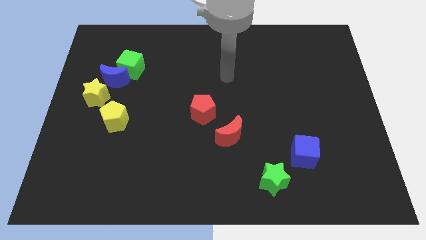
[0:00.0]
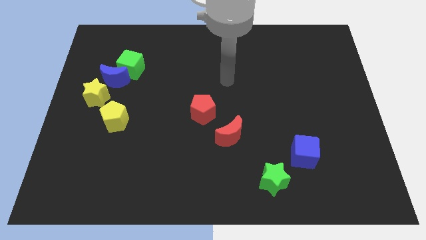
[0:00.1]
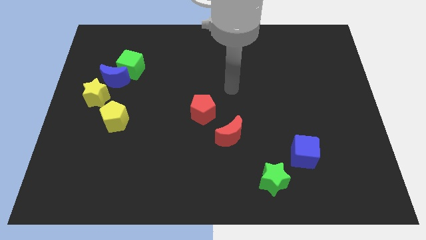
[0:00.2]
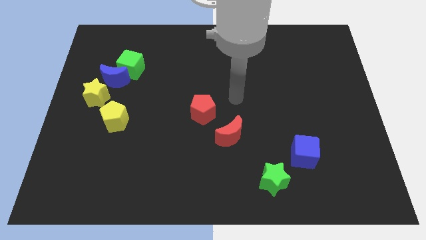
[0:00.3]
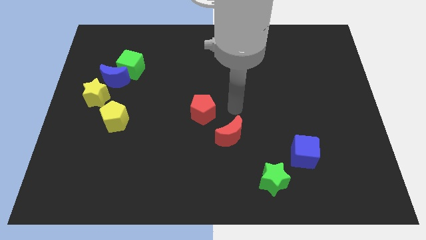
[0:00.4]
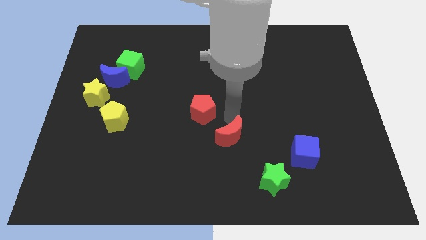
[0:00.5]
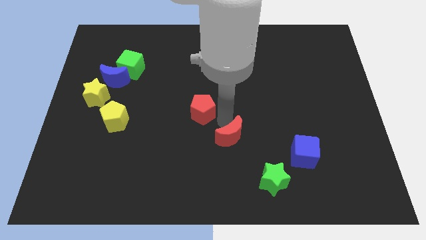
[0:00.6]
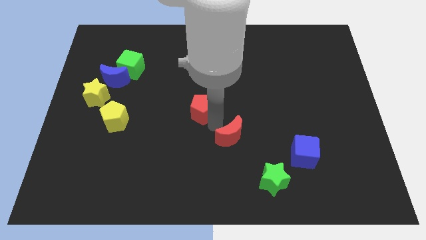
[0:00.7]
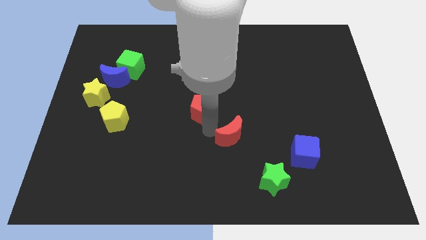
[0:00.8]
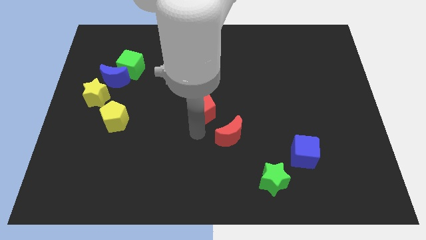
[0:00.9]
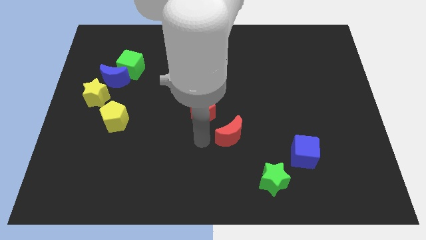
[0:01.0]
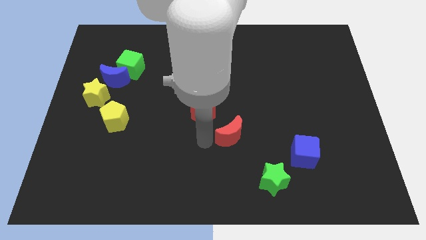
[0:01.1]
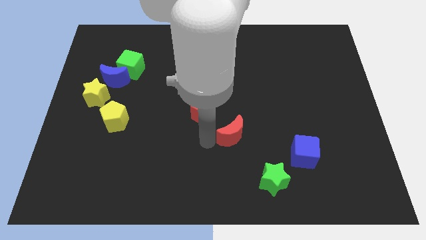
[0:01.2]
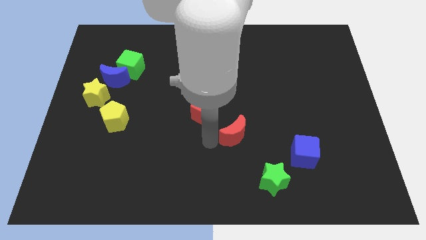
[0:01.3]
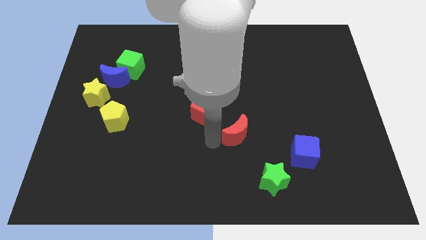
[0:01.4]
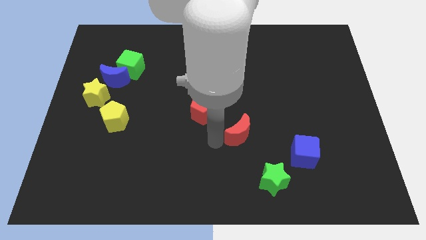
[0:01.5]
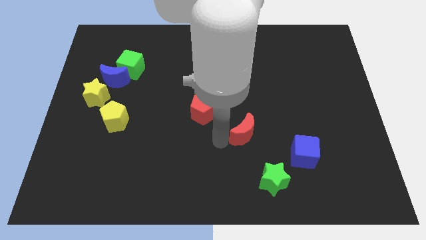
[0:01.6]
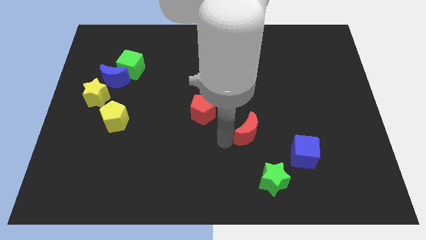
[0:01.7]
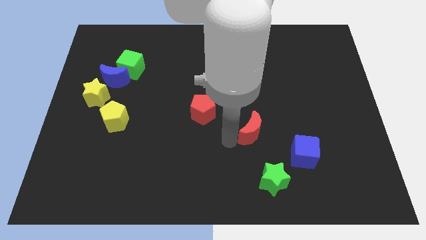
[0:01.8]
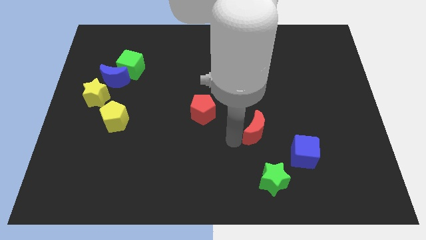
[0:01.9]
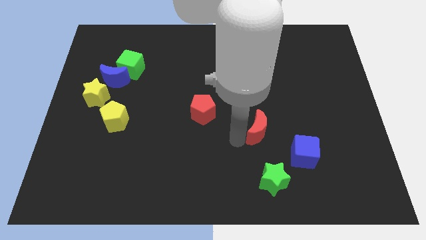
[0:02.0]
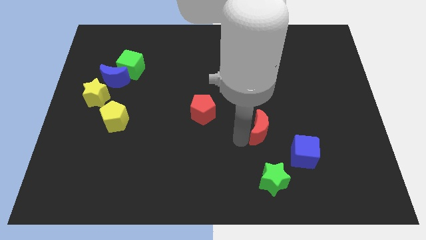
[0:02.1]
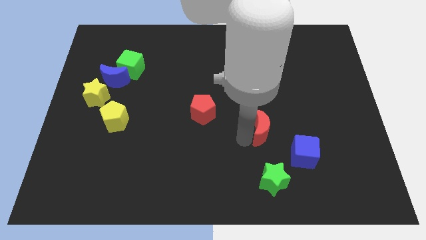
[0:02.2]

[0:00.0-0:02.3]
move the red moon somewhat right

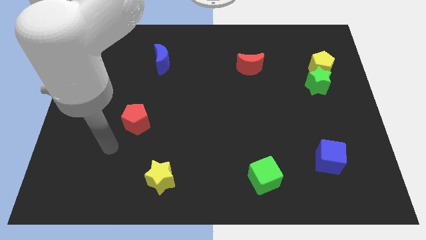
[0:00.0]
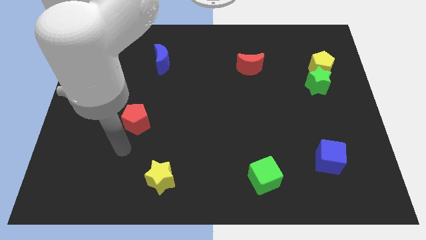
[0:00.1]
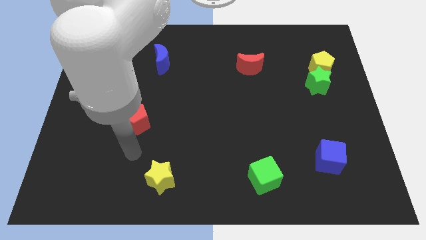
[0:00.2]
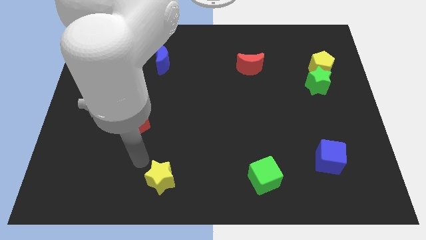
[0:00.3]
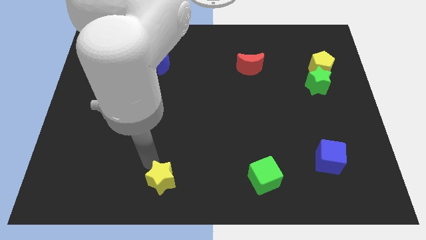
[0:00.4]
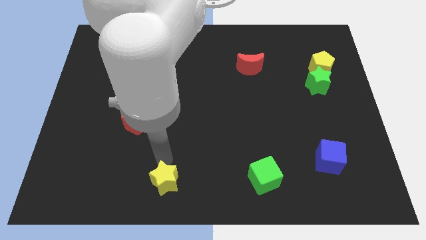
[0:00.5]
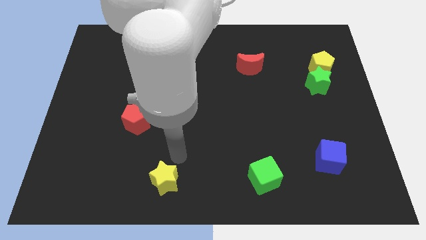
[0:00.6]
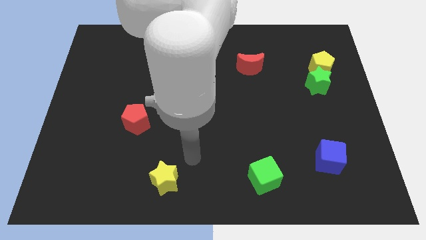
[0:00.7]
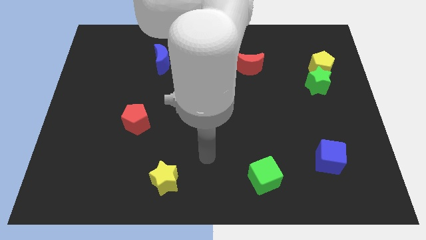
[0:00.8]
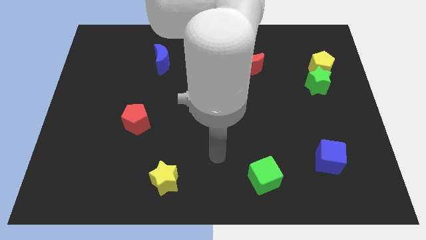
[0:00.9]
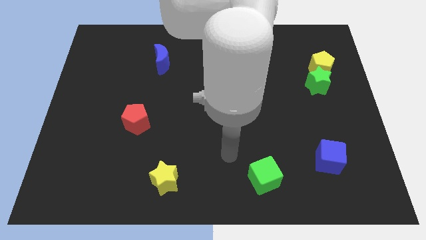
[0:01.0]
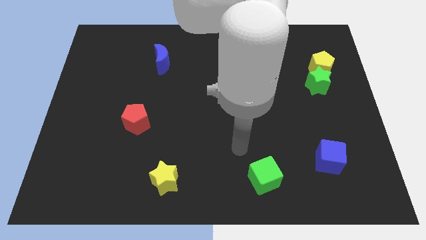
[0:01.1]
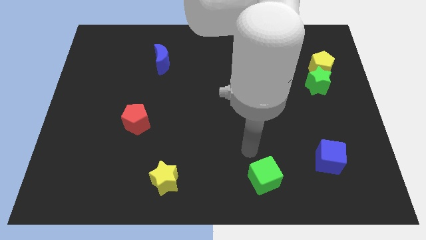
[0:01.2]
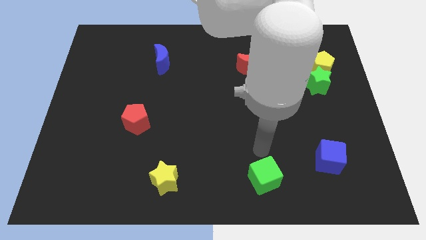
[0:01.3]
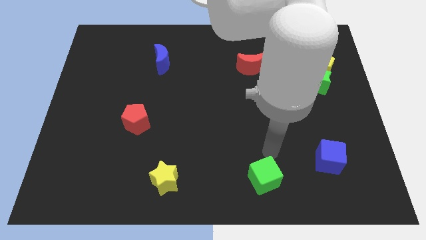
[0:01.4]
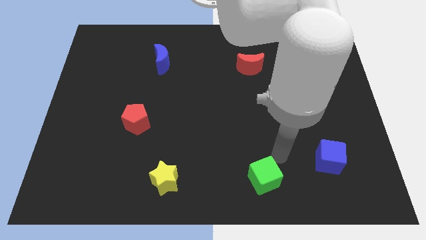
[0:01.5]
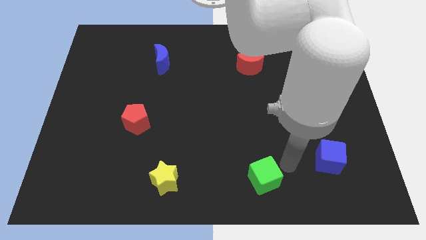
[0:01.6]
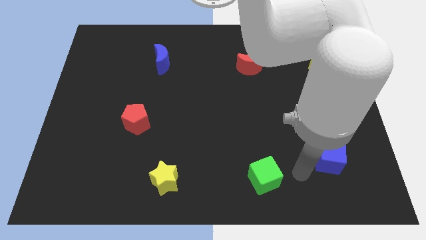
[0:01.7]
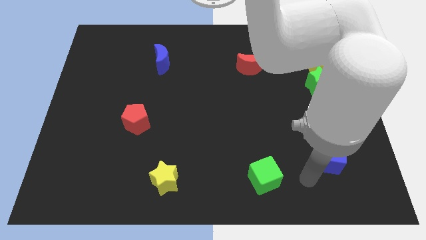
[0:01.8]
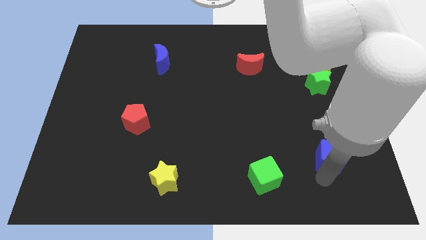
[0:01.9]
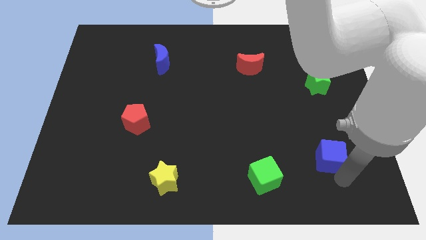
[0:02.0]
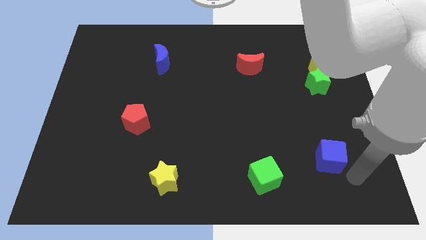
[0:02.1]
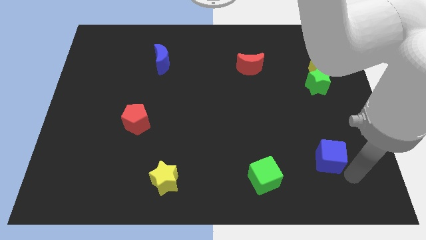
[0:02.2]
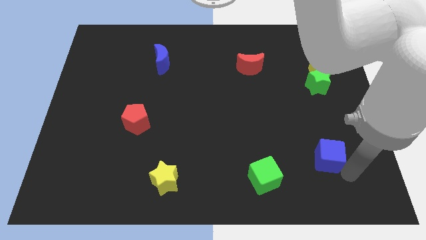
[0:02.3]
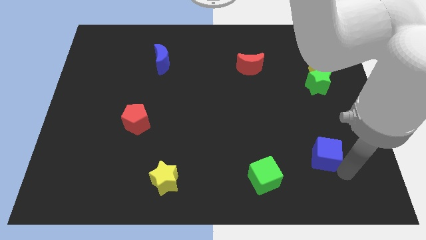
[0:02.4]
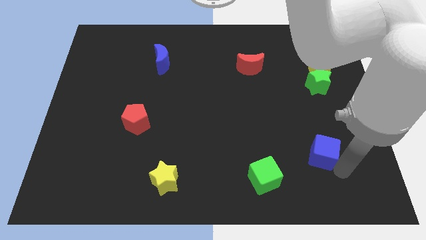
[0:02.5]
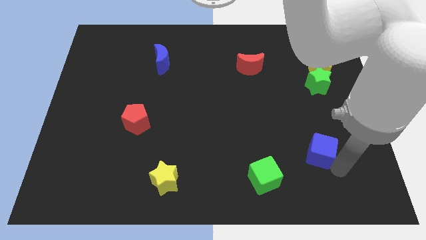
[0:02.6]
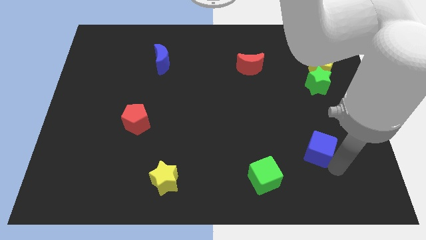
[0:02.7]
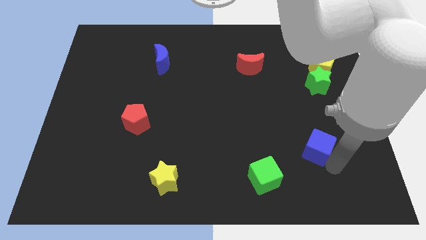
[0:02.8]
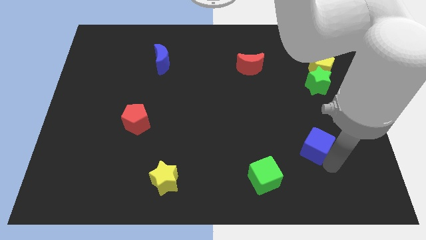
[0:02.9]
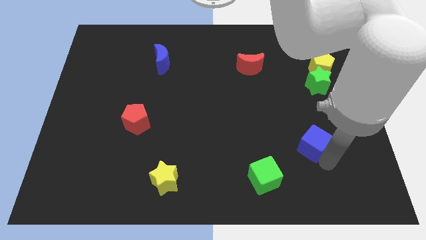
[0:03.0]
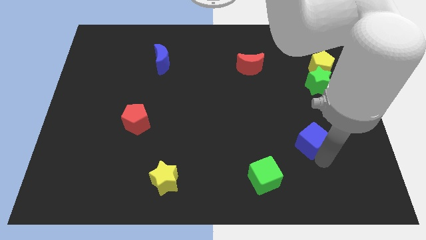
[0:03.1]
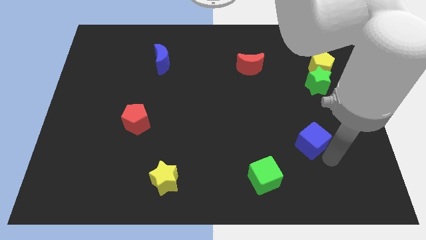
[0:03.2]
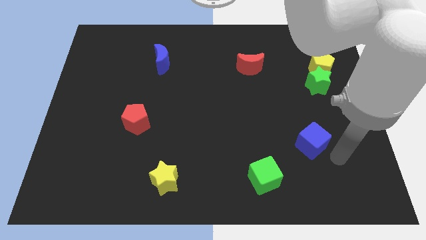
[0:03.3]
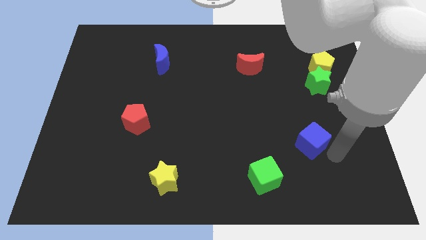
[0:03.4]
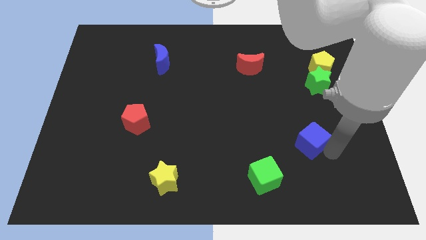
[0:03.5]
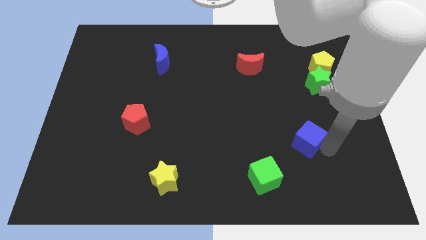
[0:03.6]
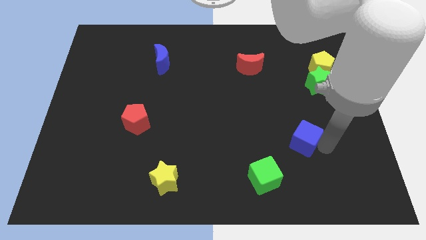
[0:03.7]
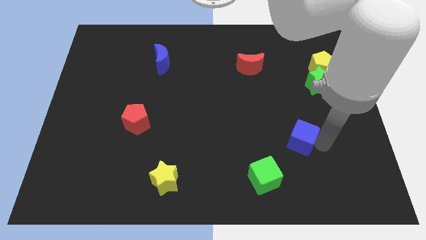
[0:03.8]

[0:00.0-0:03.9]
move the blue cube somewhat up and then left

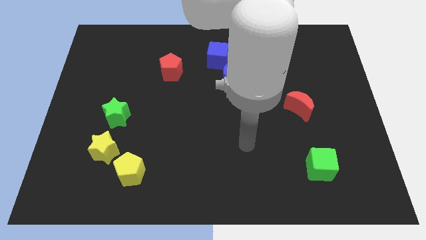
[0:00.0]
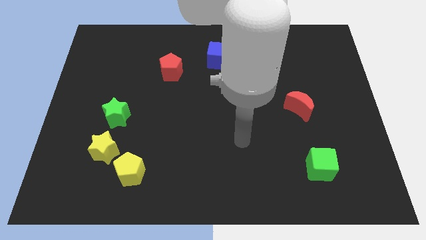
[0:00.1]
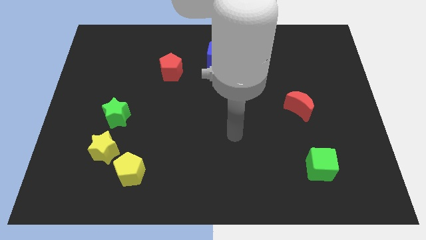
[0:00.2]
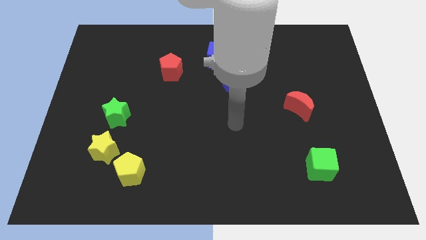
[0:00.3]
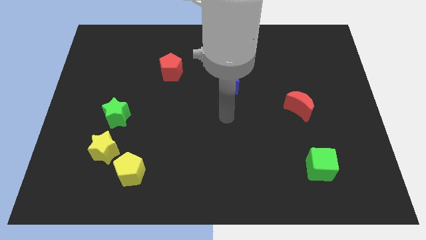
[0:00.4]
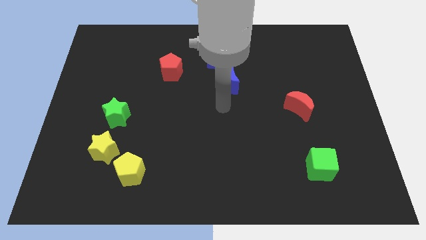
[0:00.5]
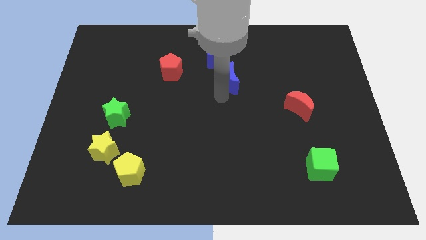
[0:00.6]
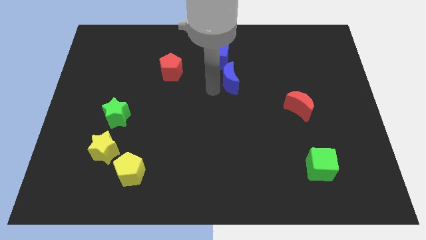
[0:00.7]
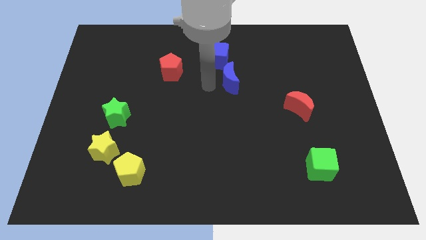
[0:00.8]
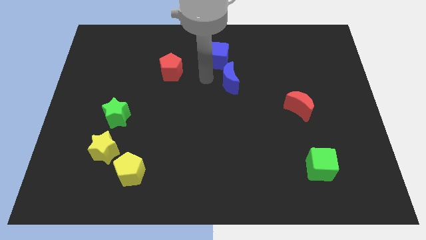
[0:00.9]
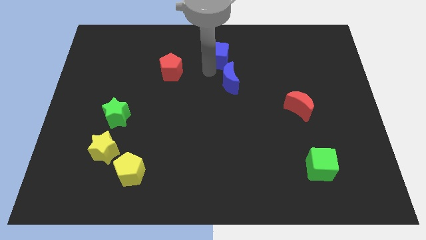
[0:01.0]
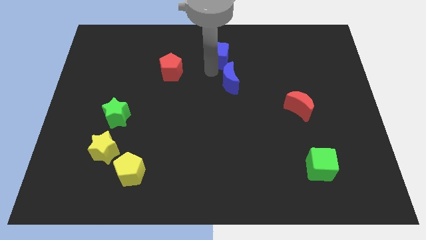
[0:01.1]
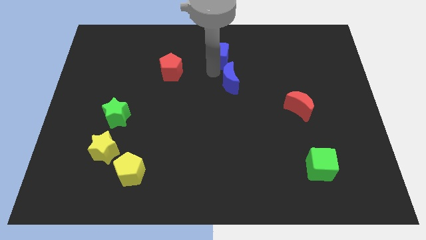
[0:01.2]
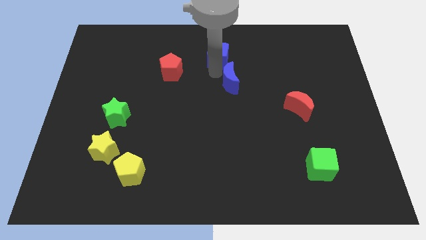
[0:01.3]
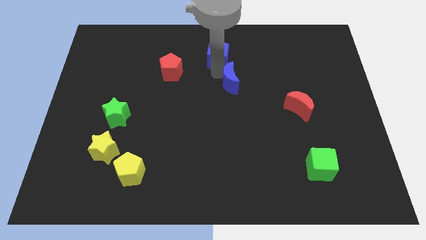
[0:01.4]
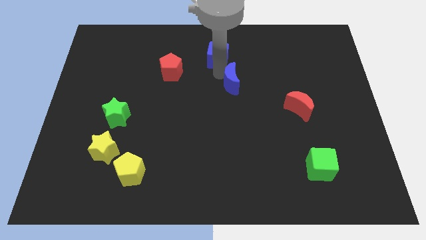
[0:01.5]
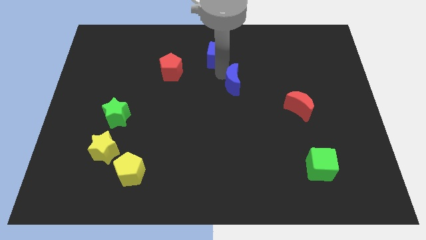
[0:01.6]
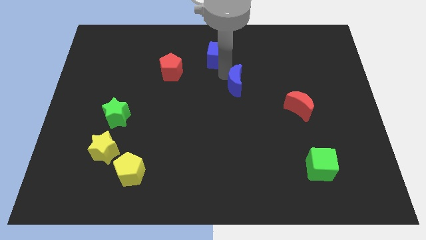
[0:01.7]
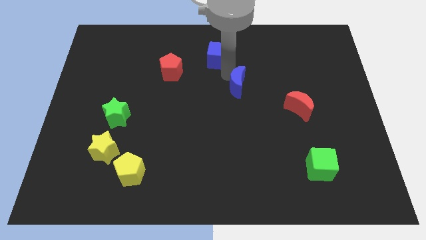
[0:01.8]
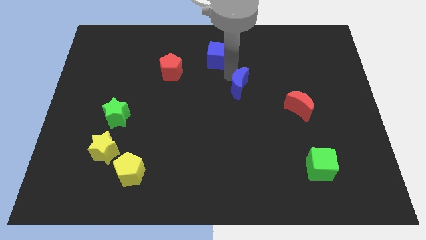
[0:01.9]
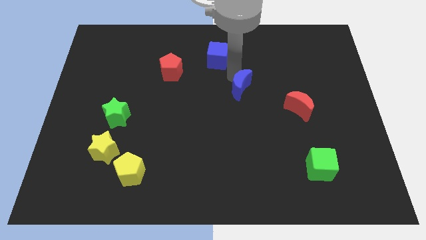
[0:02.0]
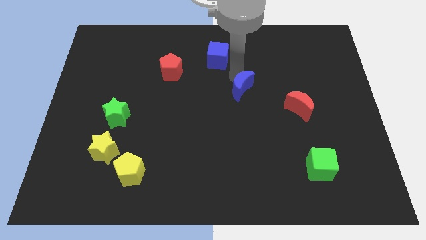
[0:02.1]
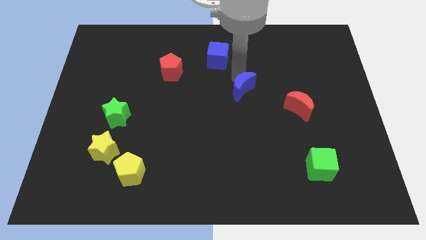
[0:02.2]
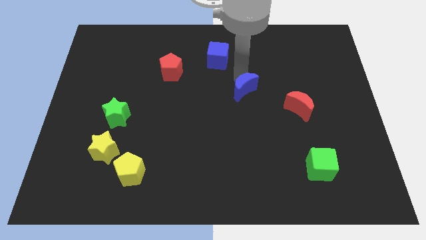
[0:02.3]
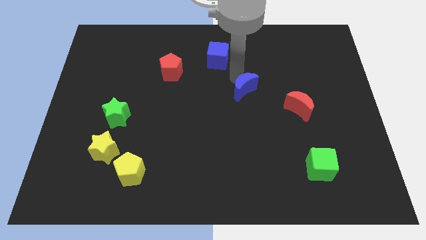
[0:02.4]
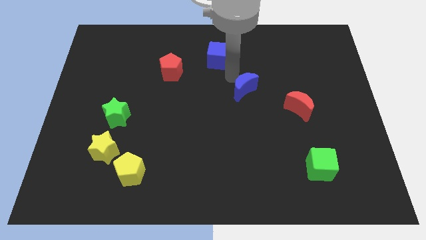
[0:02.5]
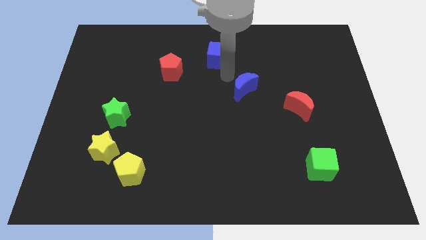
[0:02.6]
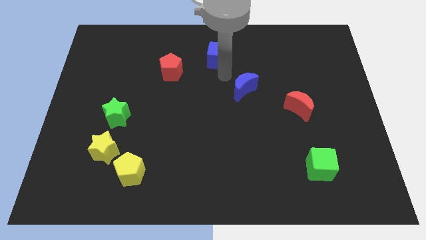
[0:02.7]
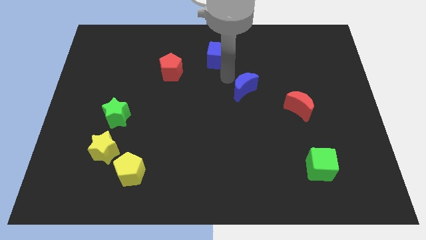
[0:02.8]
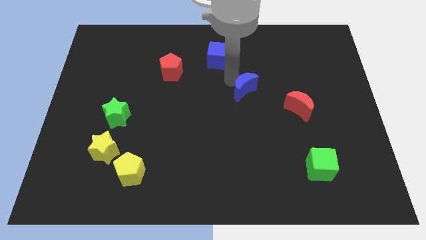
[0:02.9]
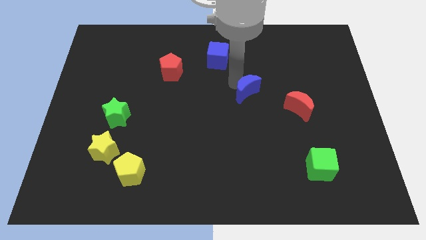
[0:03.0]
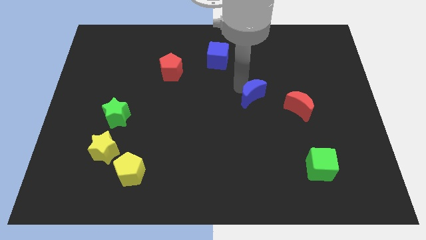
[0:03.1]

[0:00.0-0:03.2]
push the blue moon down and to the right diagonally a bit
